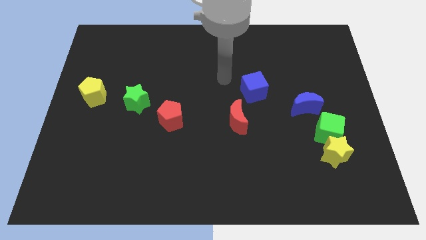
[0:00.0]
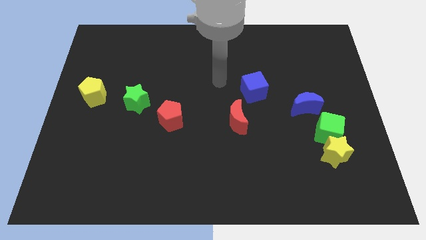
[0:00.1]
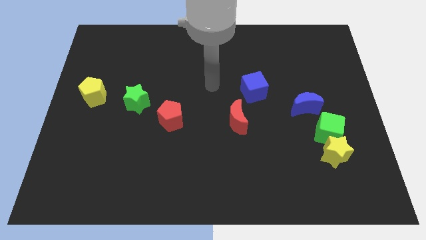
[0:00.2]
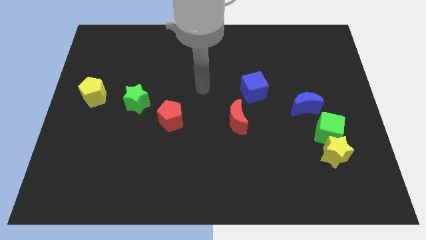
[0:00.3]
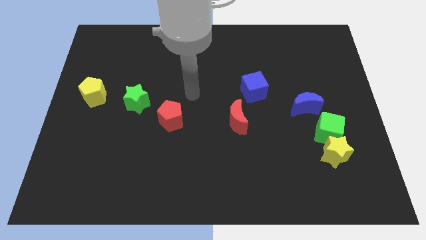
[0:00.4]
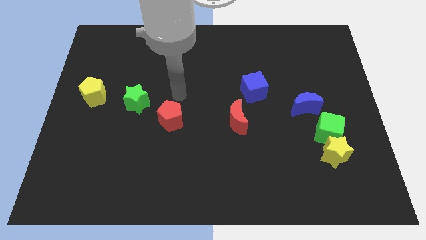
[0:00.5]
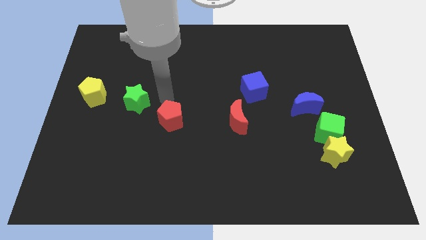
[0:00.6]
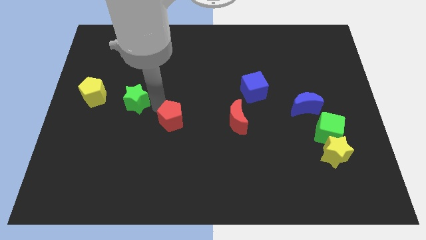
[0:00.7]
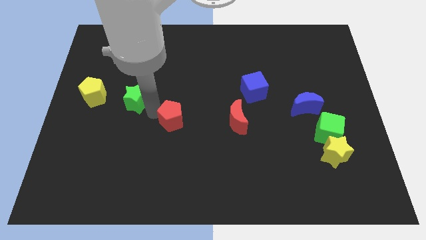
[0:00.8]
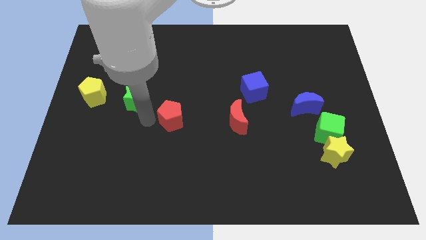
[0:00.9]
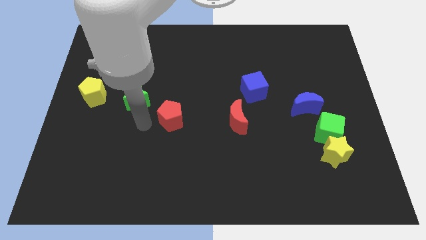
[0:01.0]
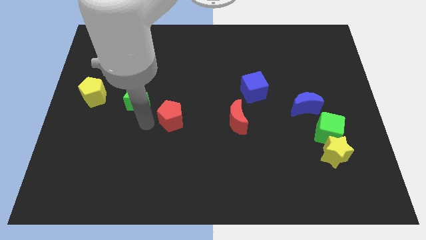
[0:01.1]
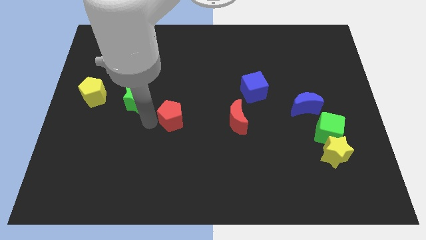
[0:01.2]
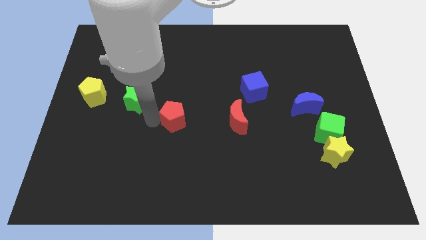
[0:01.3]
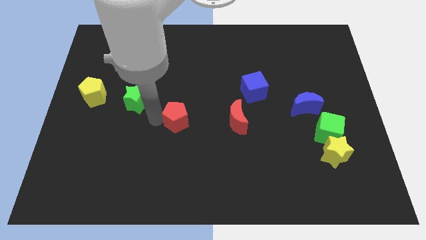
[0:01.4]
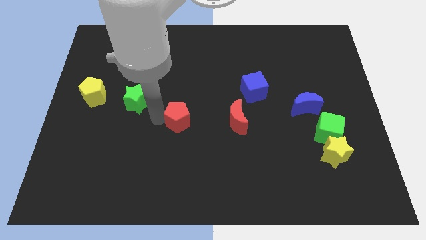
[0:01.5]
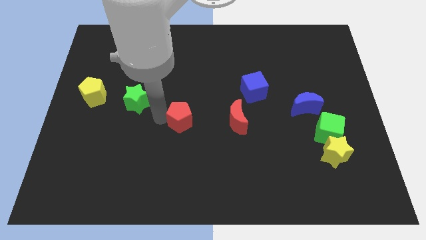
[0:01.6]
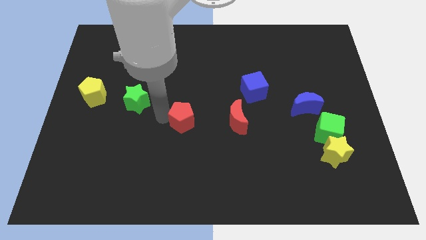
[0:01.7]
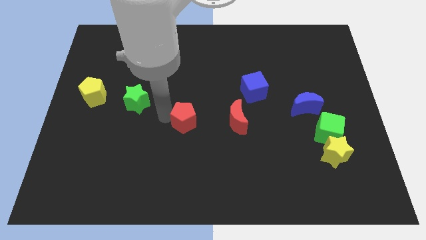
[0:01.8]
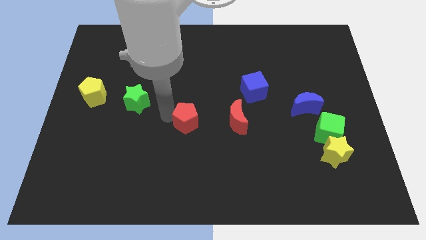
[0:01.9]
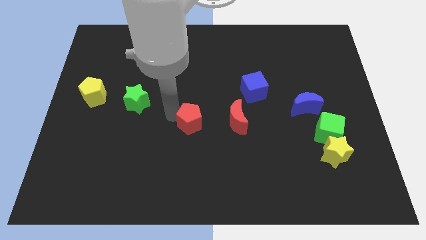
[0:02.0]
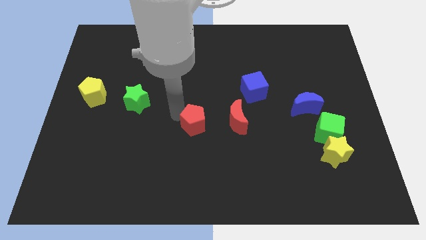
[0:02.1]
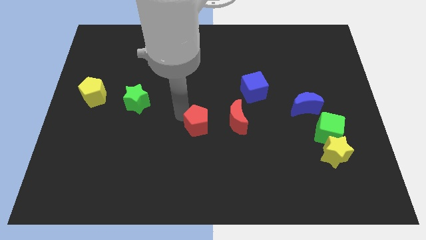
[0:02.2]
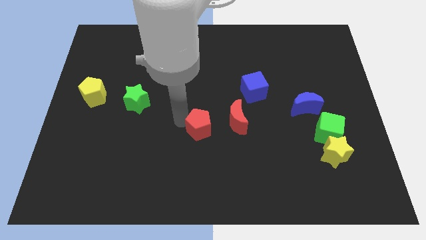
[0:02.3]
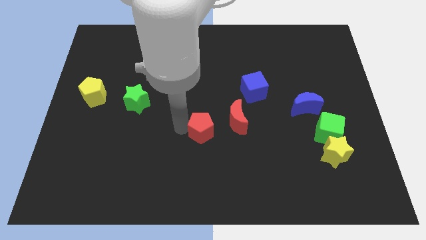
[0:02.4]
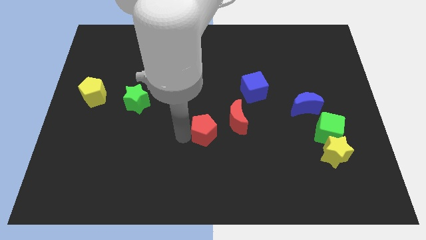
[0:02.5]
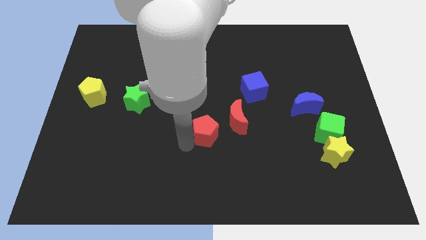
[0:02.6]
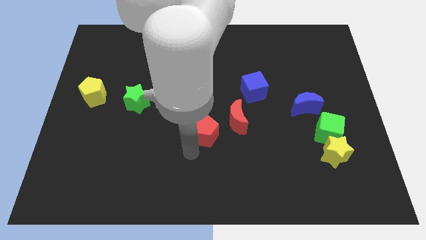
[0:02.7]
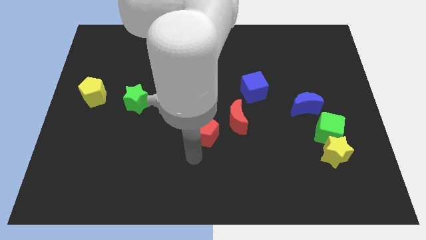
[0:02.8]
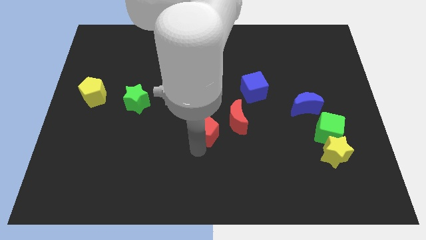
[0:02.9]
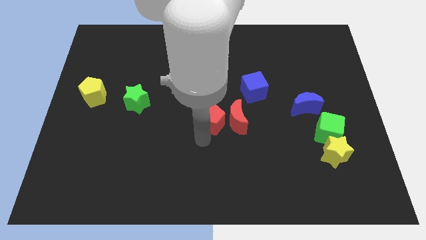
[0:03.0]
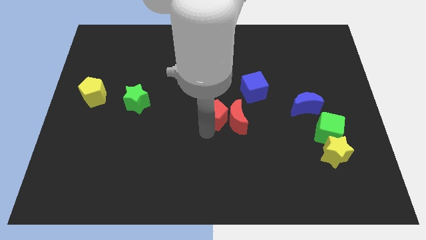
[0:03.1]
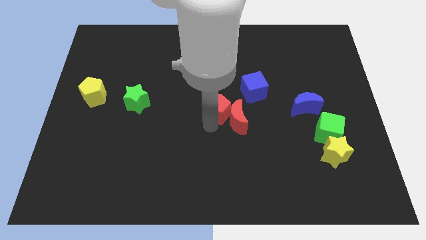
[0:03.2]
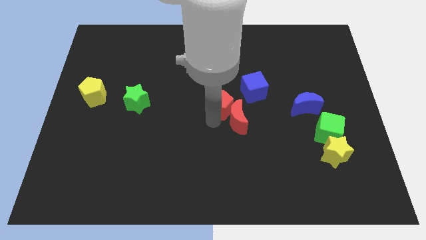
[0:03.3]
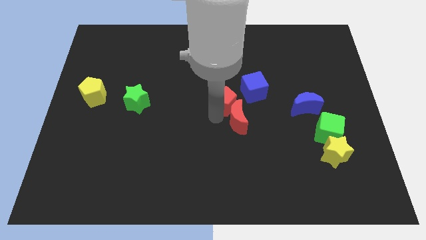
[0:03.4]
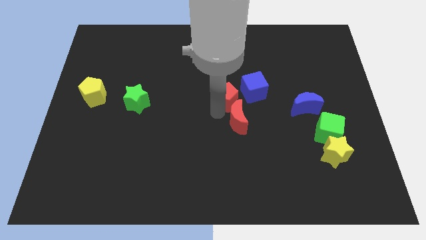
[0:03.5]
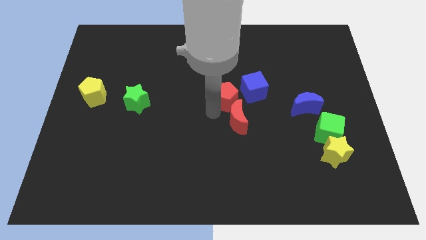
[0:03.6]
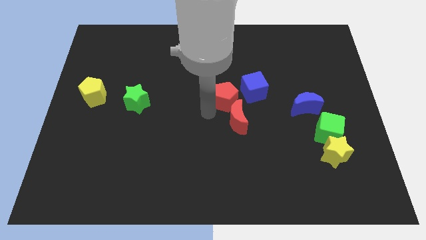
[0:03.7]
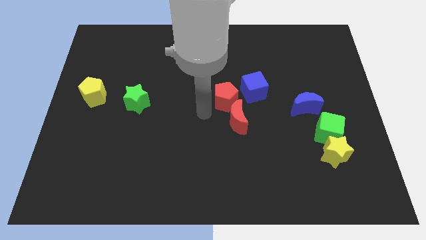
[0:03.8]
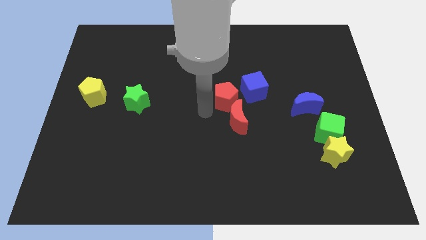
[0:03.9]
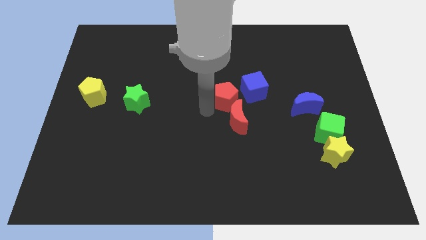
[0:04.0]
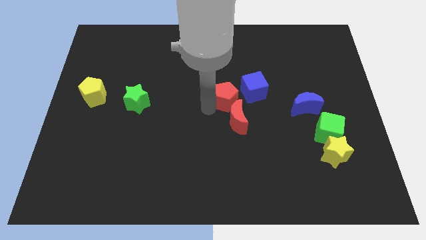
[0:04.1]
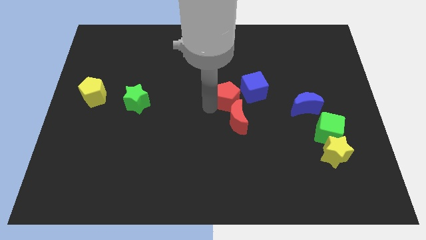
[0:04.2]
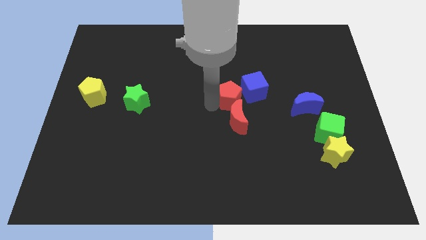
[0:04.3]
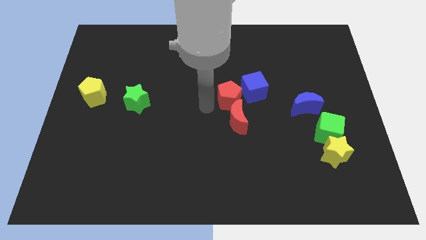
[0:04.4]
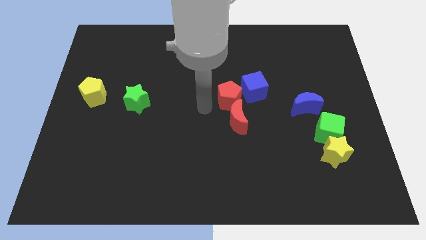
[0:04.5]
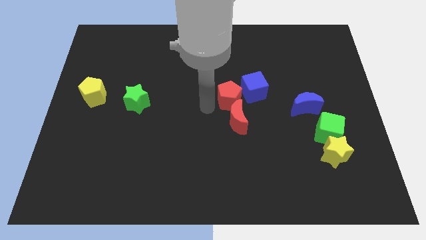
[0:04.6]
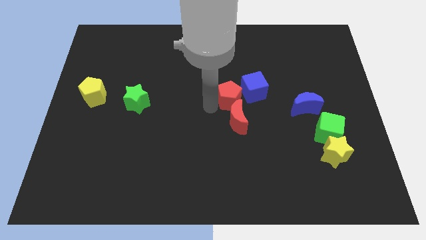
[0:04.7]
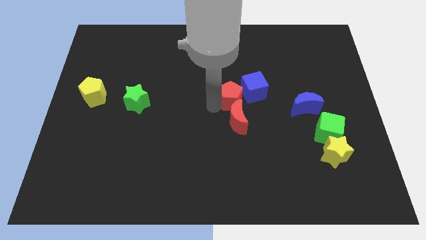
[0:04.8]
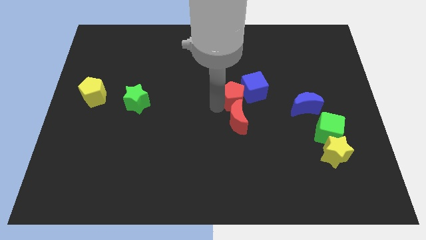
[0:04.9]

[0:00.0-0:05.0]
slide the red pentagon to the blue cube

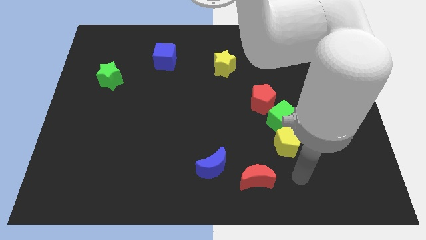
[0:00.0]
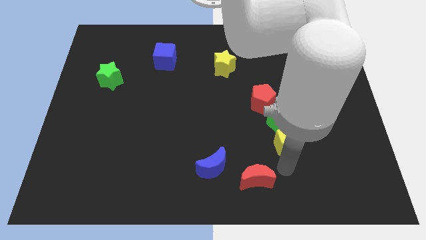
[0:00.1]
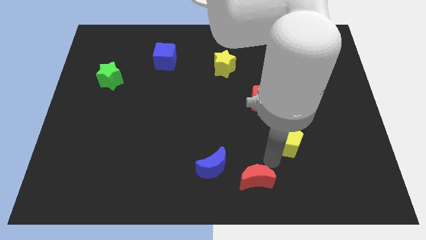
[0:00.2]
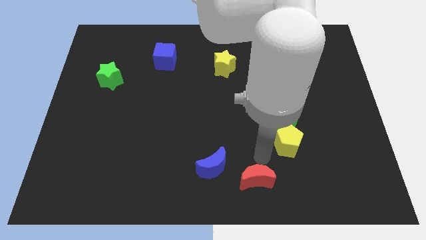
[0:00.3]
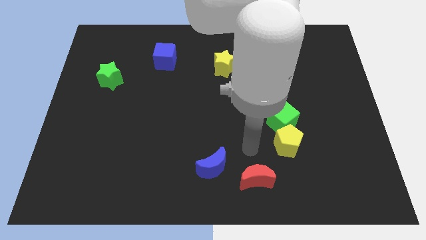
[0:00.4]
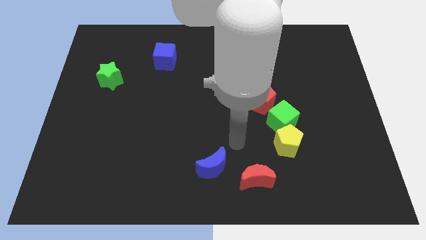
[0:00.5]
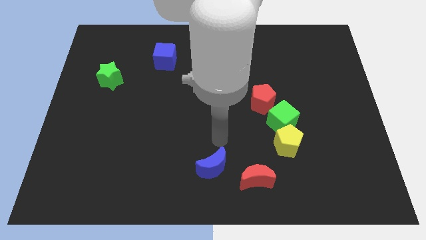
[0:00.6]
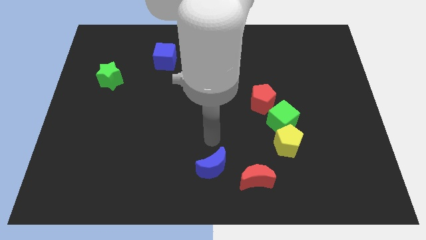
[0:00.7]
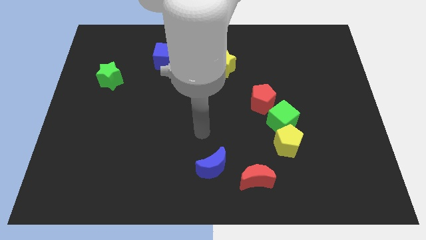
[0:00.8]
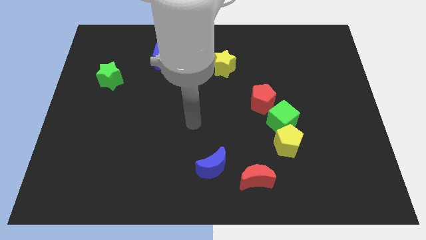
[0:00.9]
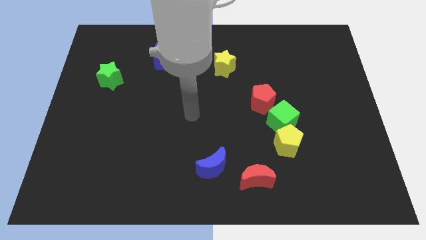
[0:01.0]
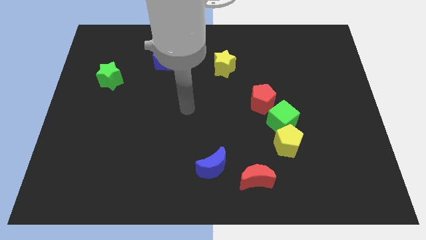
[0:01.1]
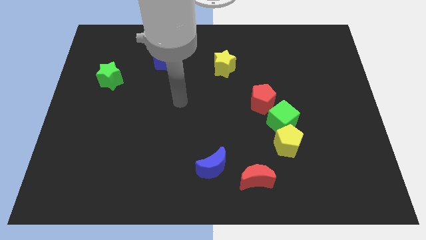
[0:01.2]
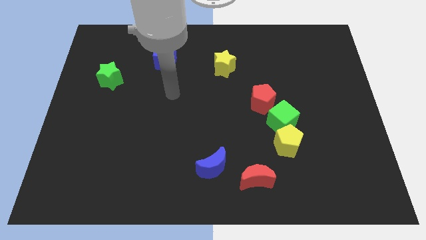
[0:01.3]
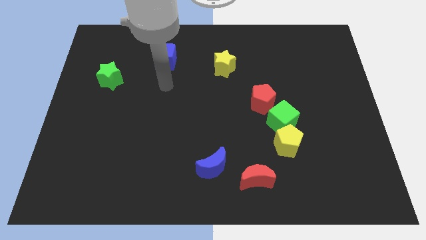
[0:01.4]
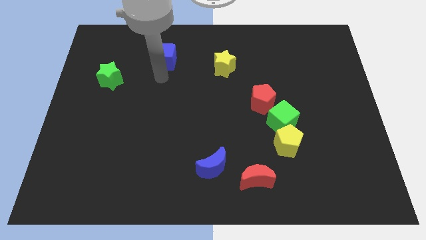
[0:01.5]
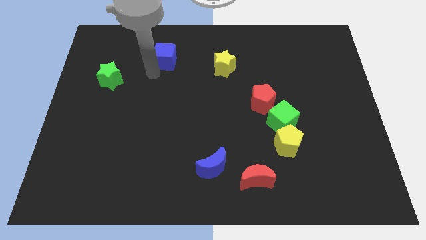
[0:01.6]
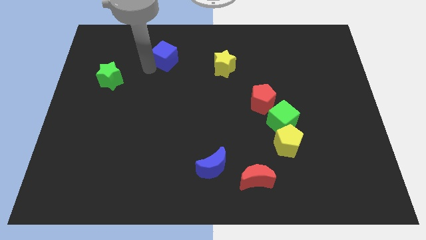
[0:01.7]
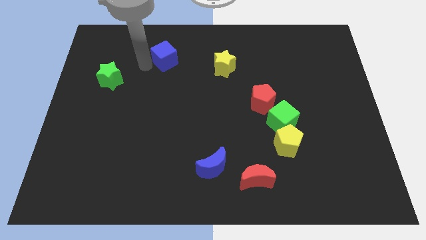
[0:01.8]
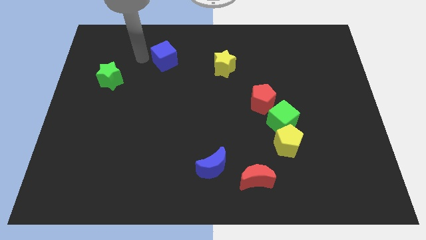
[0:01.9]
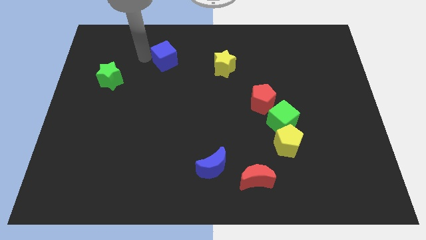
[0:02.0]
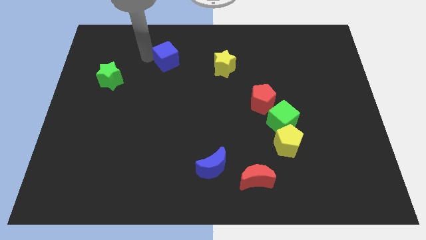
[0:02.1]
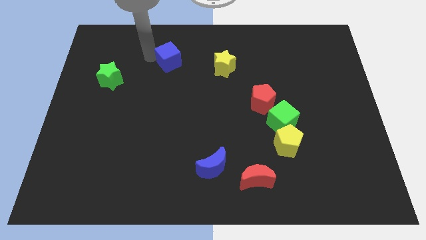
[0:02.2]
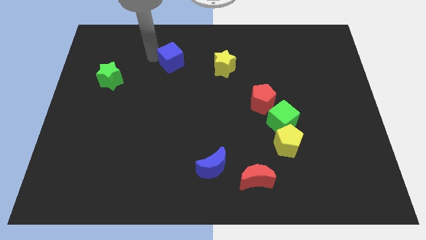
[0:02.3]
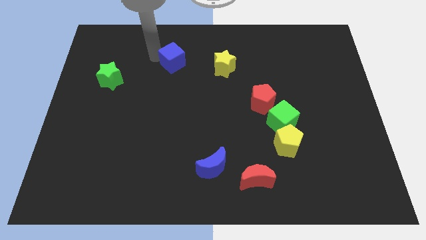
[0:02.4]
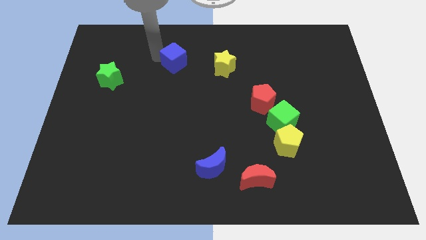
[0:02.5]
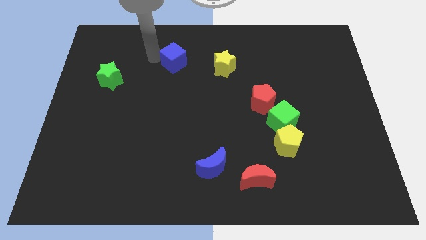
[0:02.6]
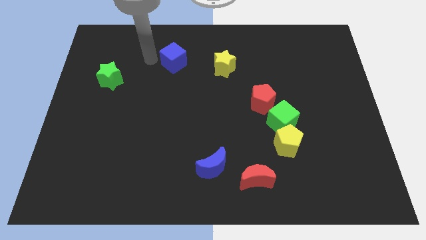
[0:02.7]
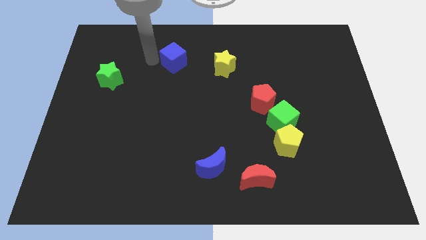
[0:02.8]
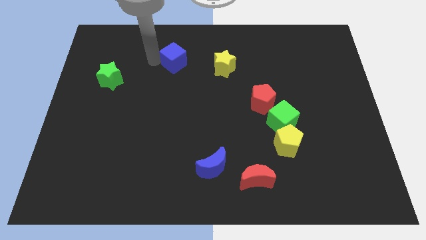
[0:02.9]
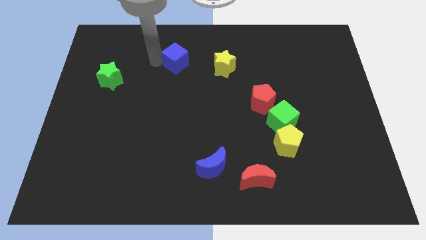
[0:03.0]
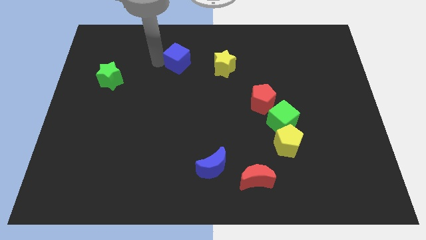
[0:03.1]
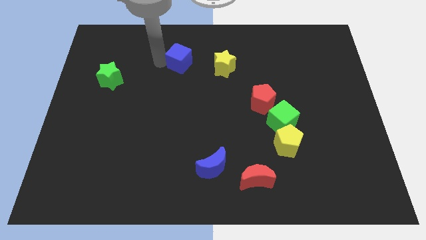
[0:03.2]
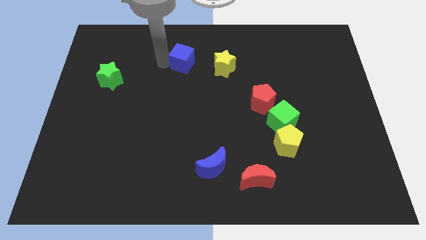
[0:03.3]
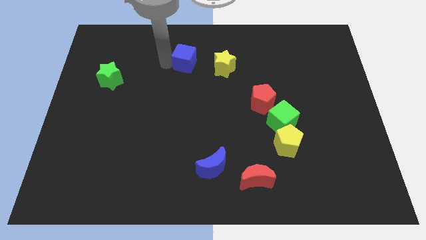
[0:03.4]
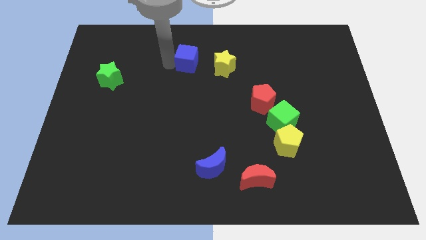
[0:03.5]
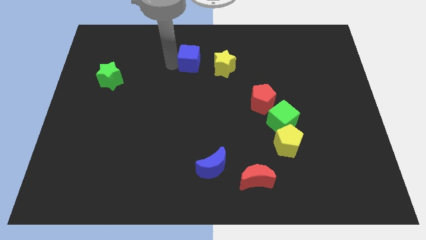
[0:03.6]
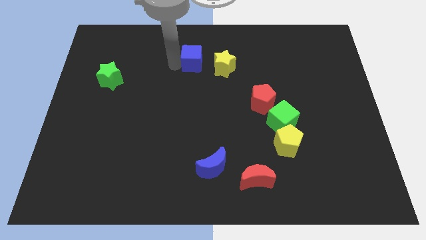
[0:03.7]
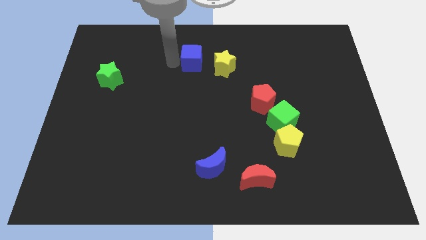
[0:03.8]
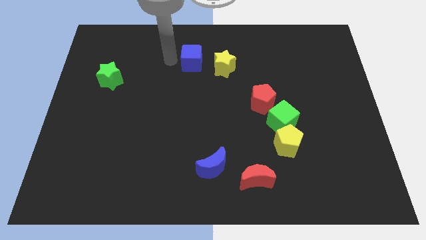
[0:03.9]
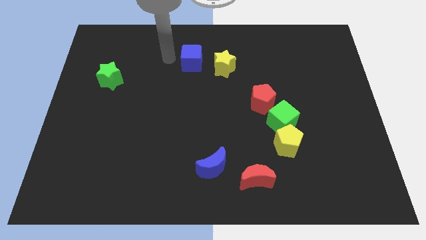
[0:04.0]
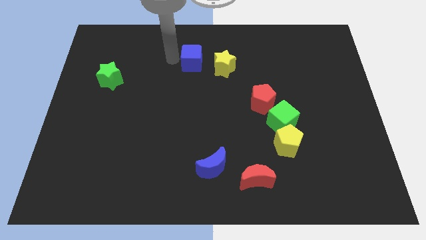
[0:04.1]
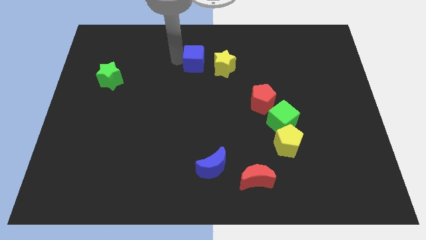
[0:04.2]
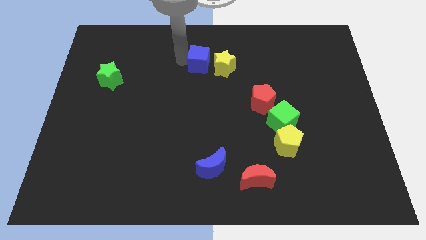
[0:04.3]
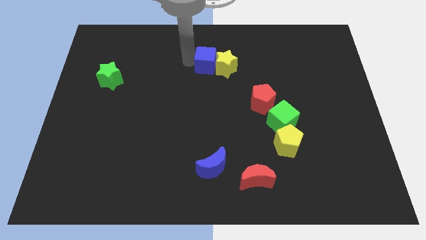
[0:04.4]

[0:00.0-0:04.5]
slide the blue cube to the yellow star
